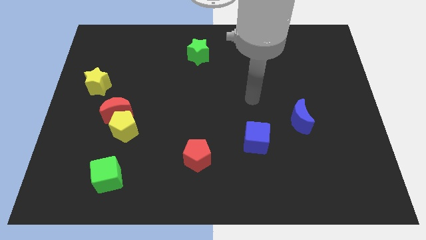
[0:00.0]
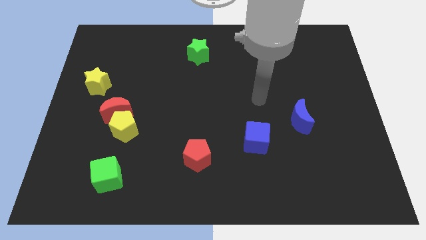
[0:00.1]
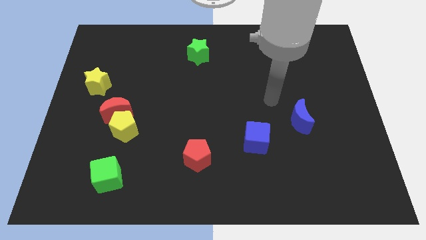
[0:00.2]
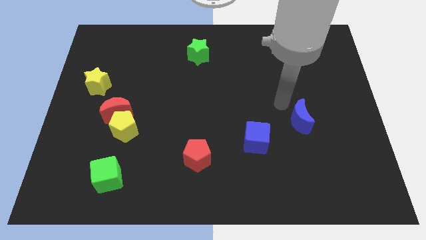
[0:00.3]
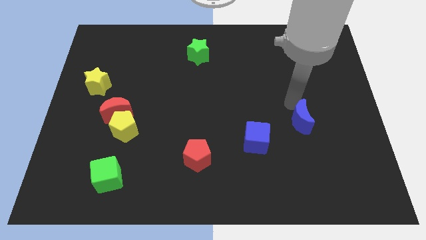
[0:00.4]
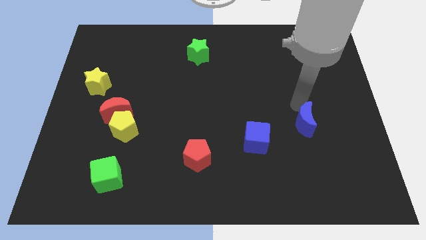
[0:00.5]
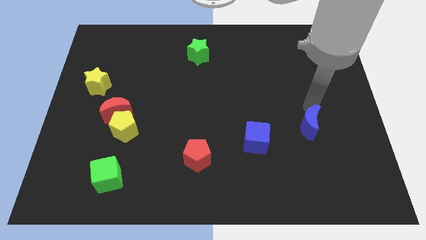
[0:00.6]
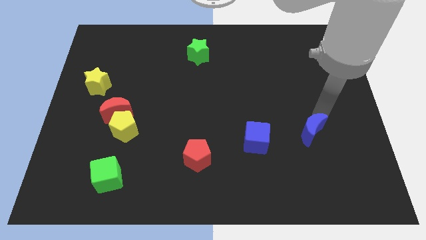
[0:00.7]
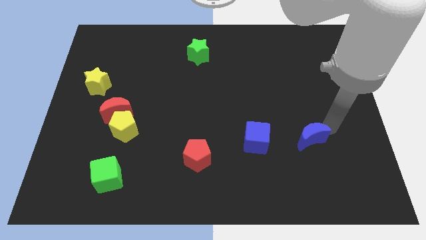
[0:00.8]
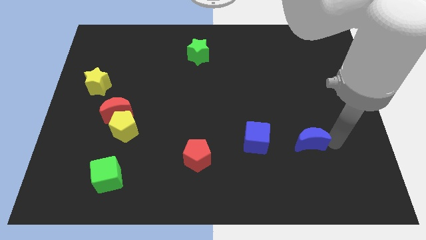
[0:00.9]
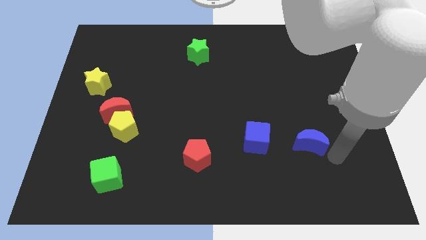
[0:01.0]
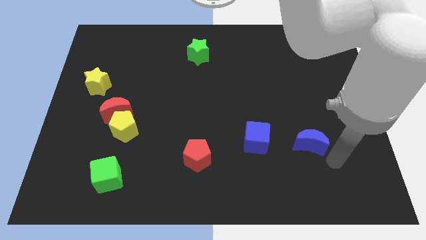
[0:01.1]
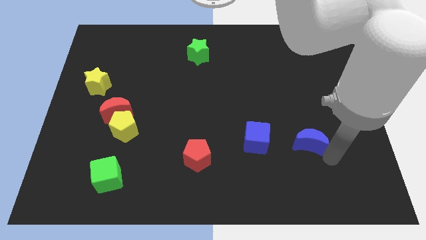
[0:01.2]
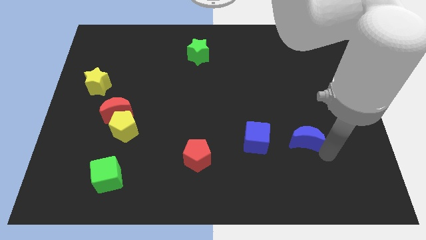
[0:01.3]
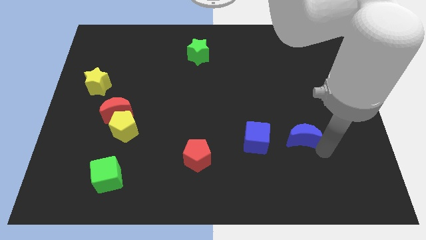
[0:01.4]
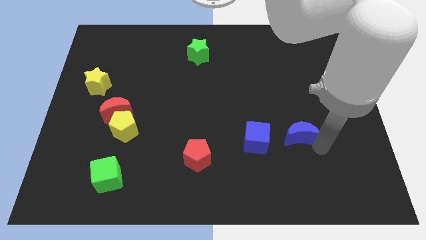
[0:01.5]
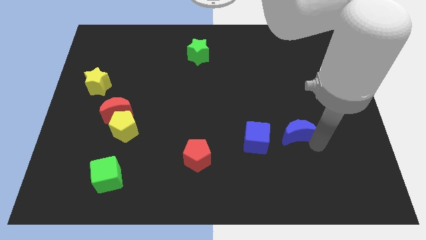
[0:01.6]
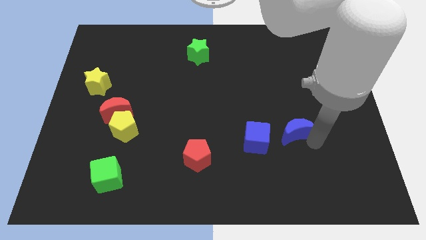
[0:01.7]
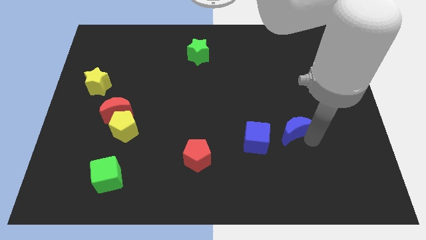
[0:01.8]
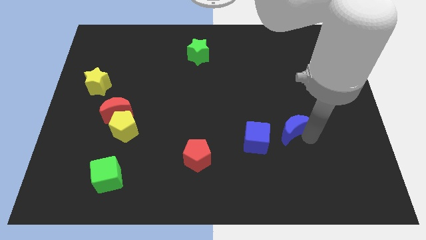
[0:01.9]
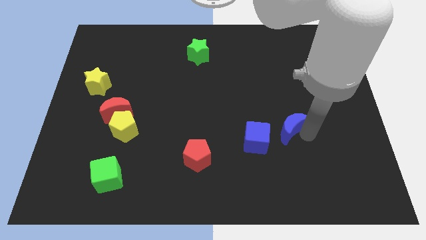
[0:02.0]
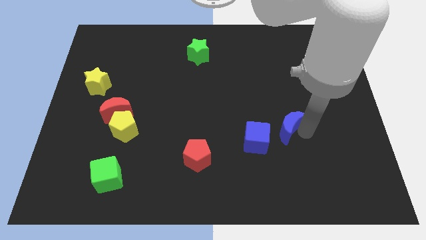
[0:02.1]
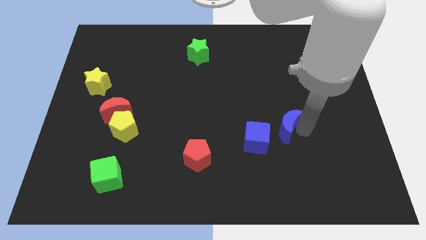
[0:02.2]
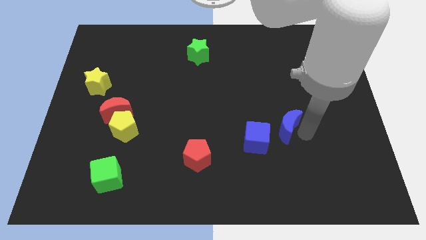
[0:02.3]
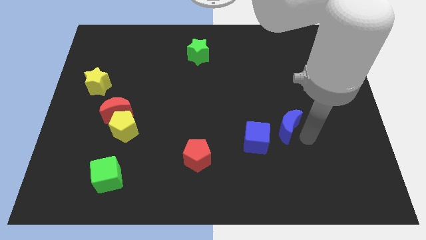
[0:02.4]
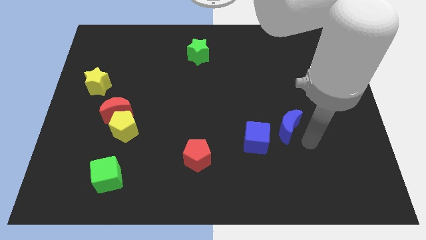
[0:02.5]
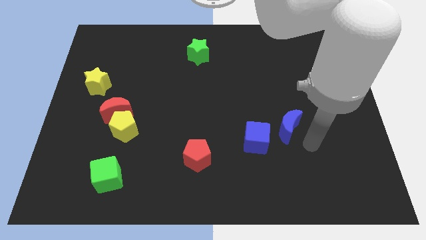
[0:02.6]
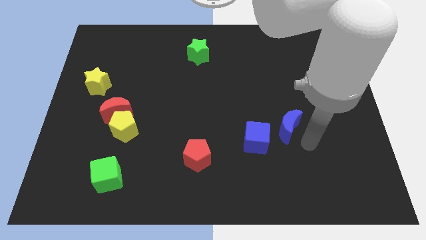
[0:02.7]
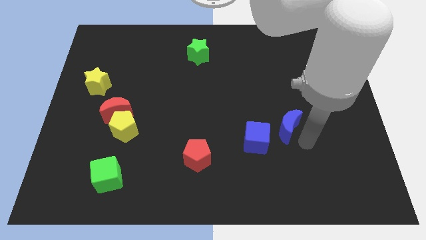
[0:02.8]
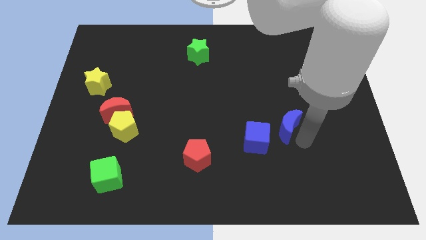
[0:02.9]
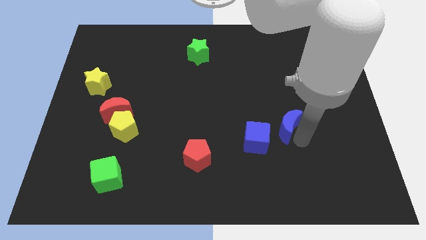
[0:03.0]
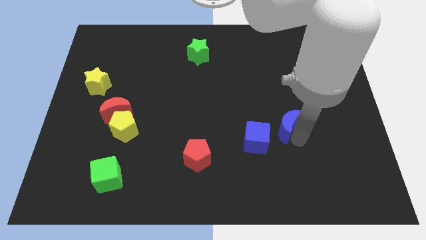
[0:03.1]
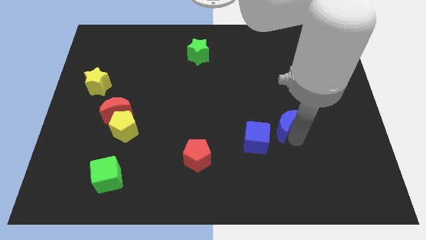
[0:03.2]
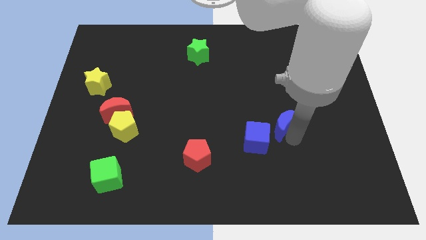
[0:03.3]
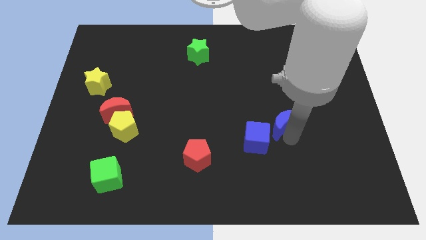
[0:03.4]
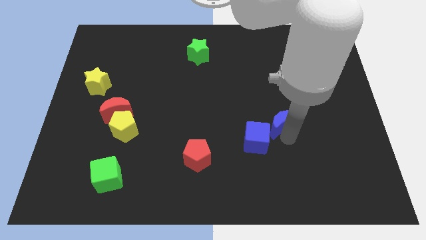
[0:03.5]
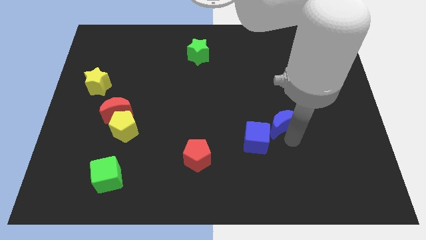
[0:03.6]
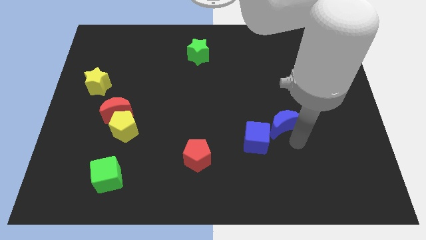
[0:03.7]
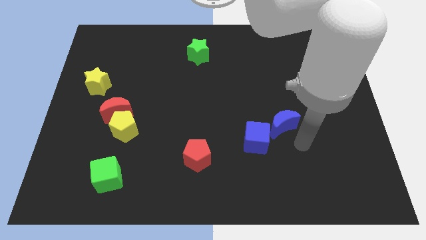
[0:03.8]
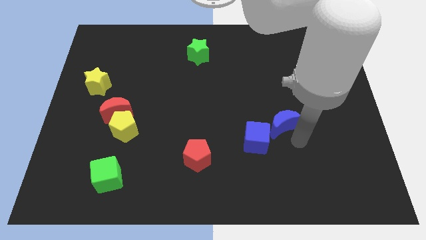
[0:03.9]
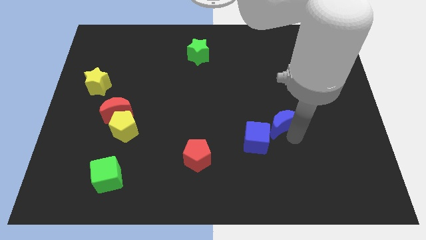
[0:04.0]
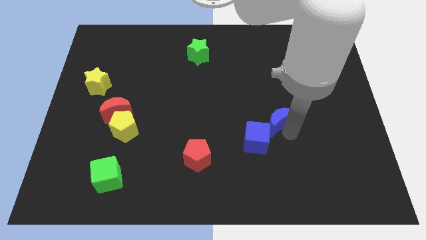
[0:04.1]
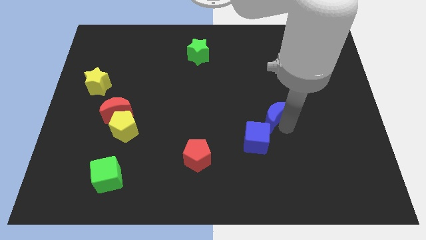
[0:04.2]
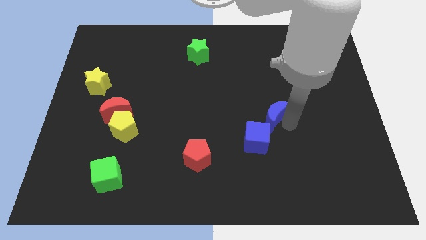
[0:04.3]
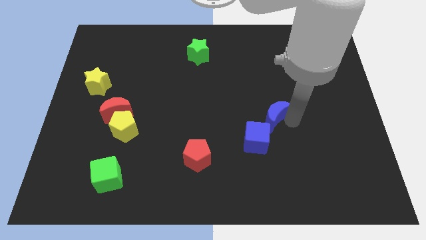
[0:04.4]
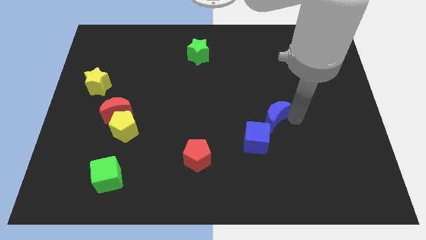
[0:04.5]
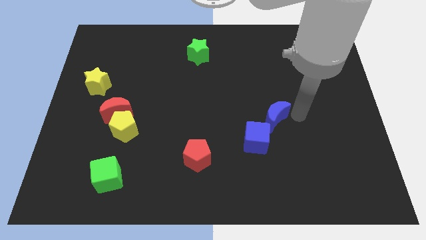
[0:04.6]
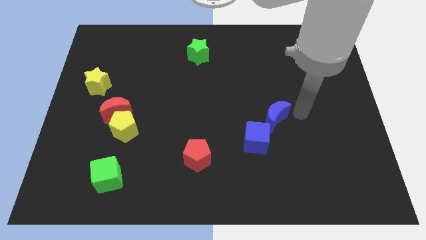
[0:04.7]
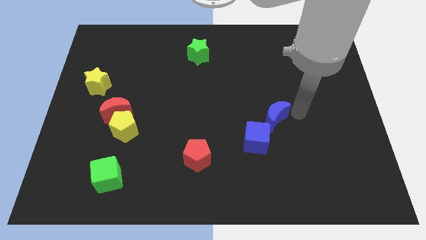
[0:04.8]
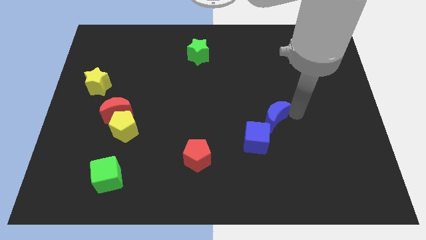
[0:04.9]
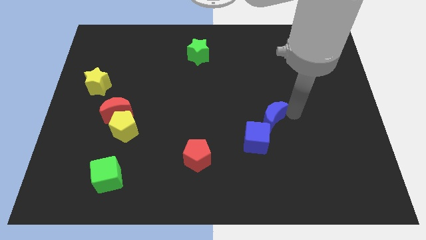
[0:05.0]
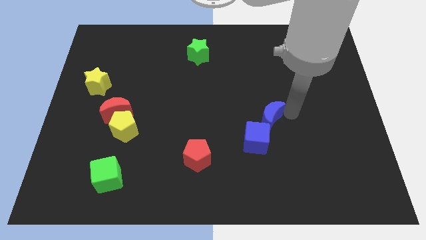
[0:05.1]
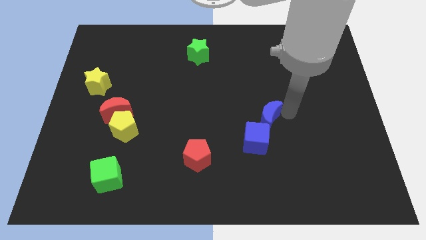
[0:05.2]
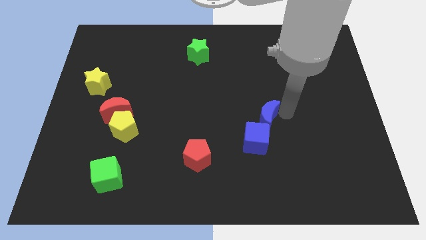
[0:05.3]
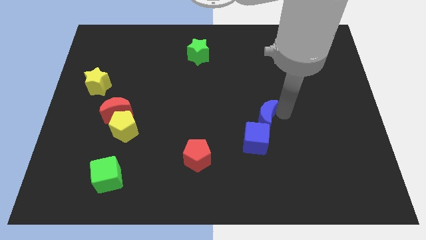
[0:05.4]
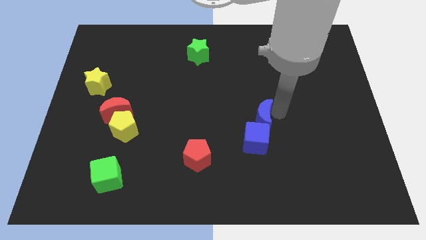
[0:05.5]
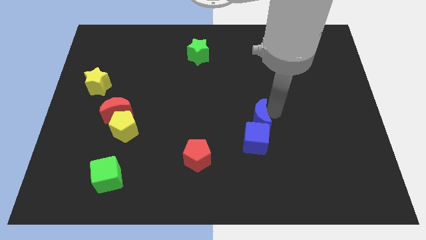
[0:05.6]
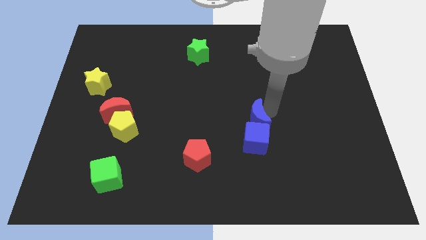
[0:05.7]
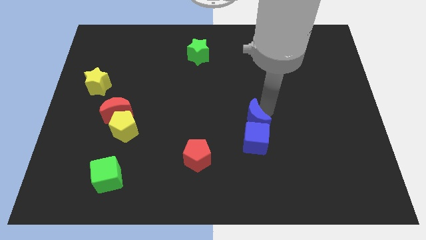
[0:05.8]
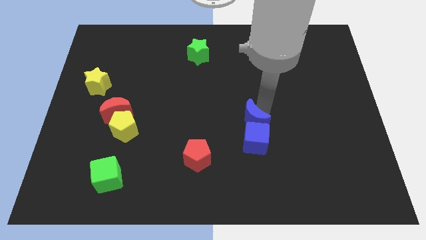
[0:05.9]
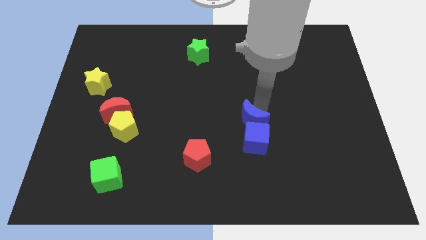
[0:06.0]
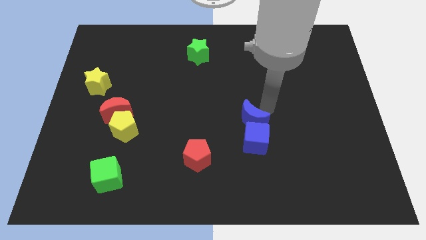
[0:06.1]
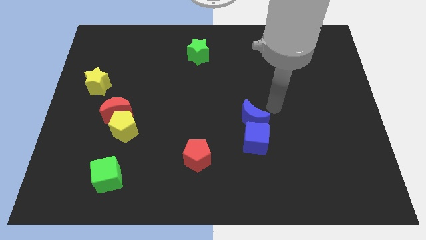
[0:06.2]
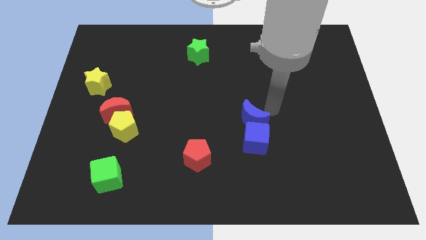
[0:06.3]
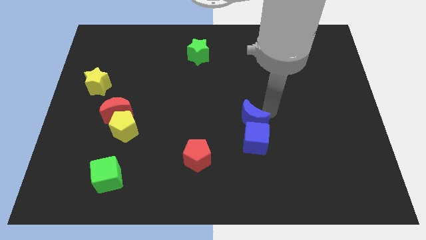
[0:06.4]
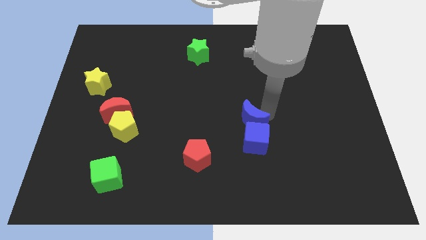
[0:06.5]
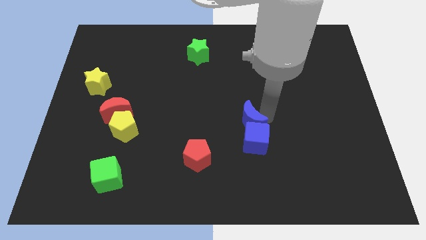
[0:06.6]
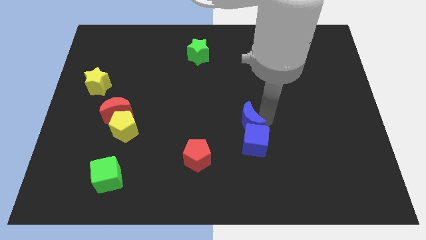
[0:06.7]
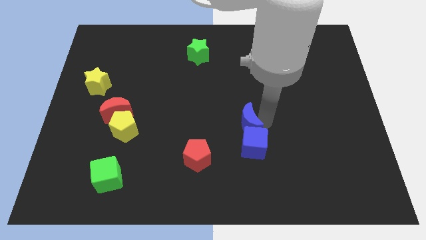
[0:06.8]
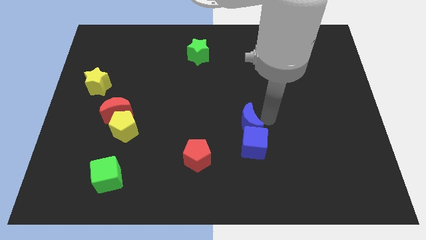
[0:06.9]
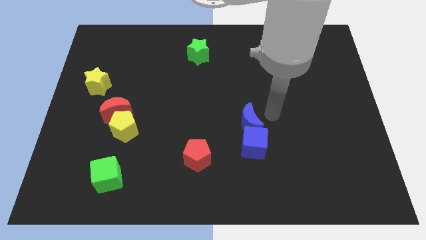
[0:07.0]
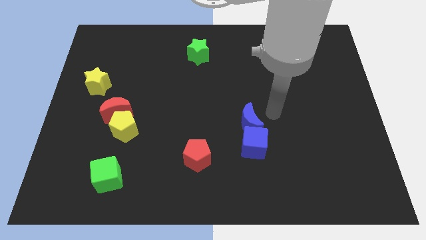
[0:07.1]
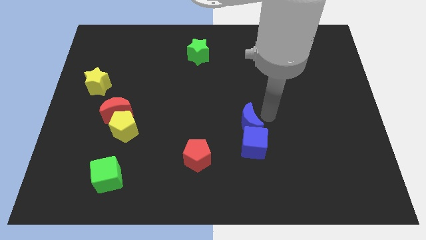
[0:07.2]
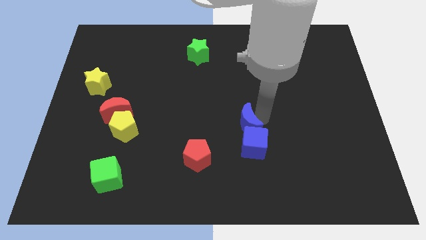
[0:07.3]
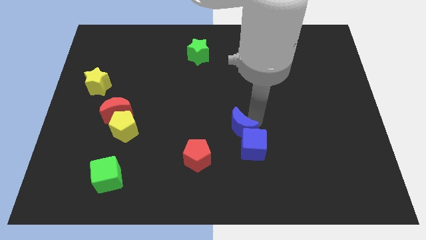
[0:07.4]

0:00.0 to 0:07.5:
slide the blue moon to the top right of the red pentagon
